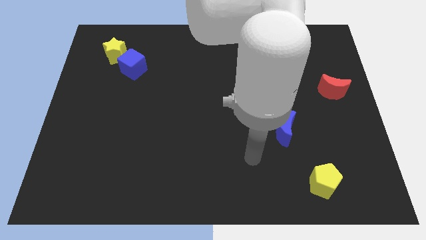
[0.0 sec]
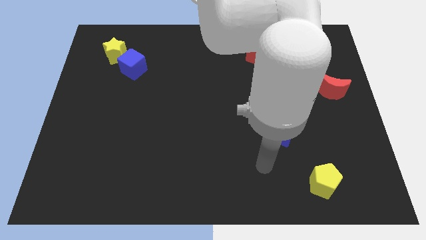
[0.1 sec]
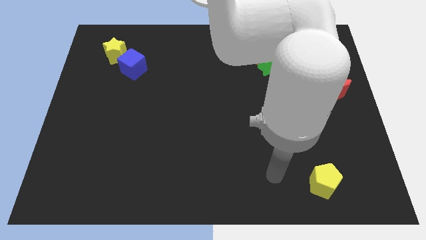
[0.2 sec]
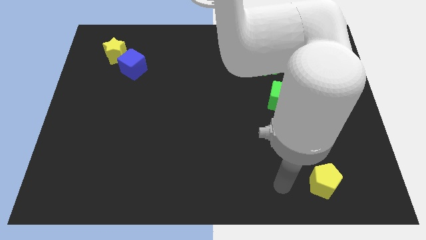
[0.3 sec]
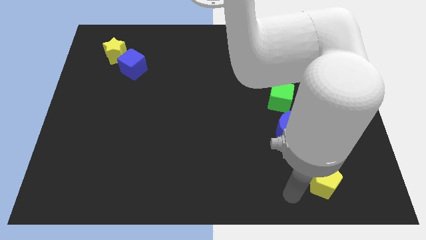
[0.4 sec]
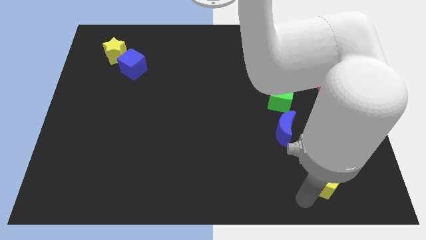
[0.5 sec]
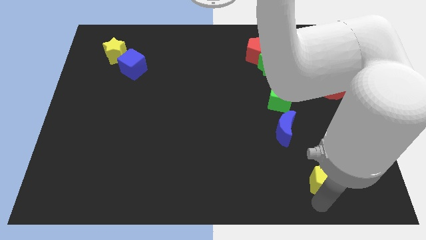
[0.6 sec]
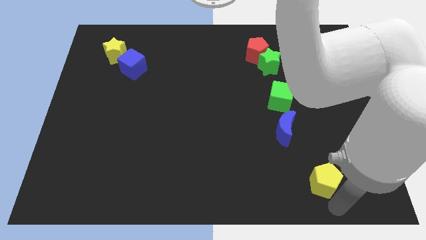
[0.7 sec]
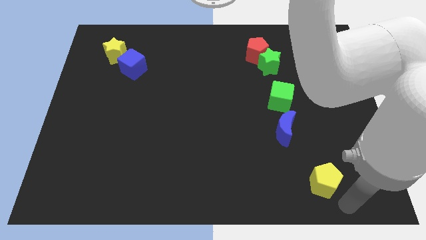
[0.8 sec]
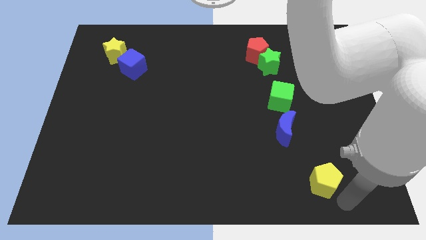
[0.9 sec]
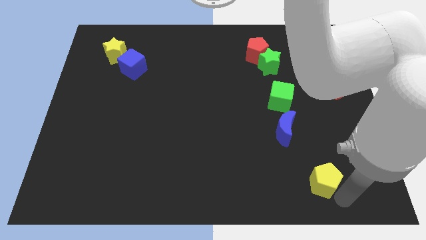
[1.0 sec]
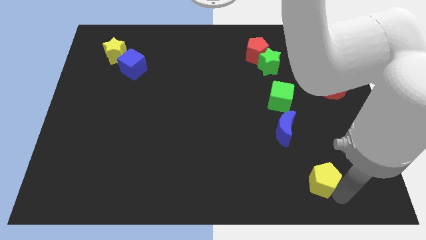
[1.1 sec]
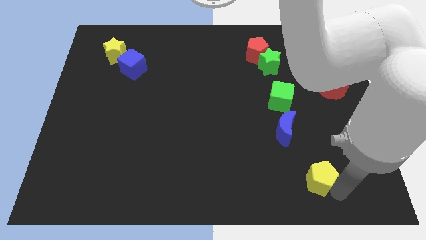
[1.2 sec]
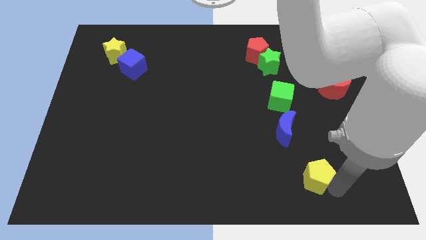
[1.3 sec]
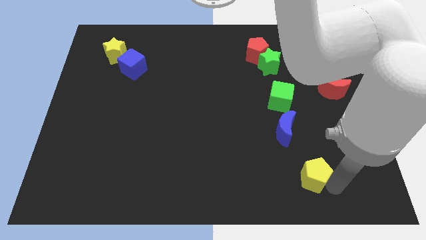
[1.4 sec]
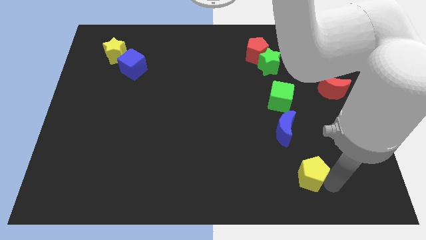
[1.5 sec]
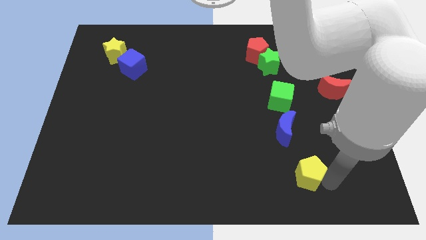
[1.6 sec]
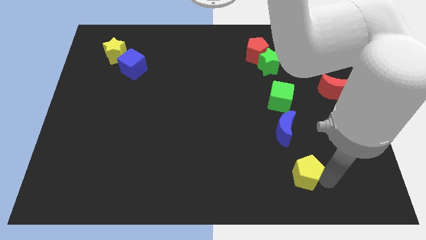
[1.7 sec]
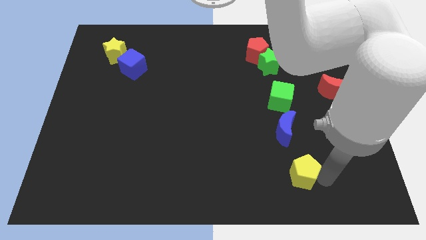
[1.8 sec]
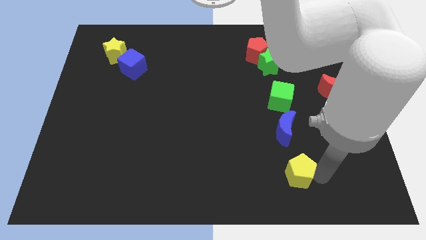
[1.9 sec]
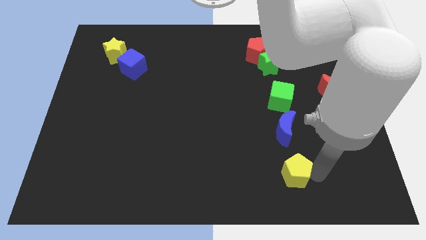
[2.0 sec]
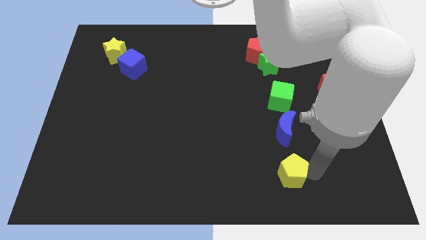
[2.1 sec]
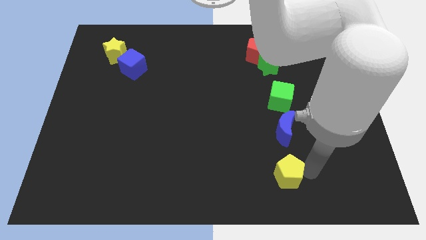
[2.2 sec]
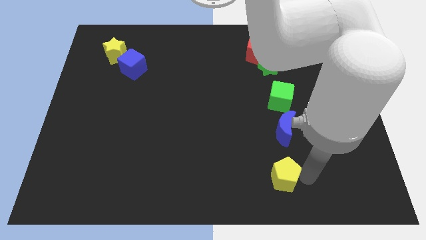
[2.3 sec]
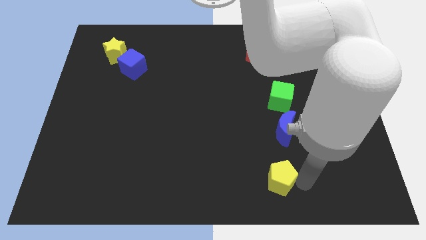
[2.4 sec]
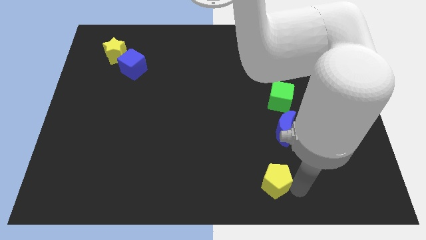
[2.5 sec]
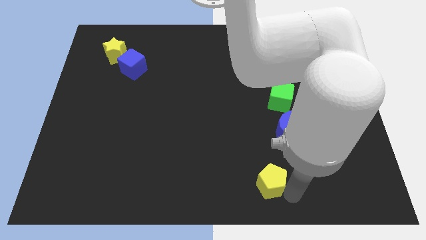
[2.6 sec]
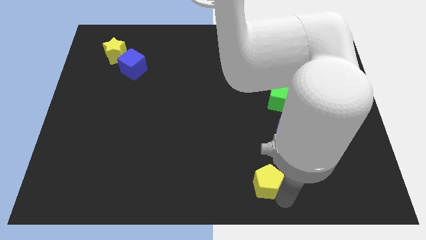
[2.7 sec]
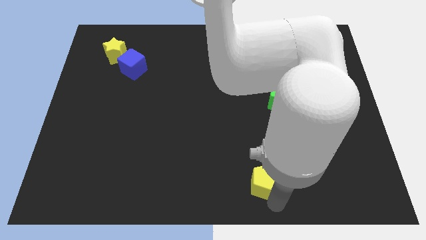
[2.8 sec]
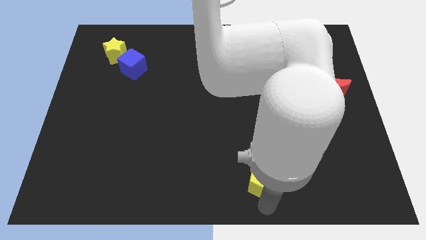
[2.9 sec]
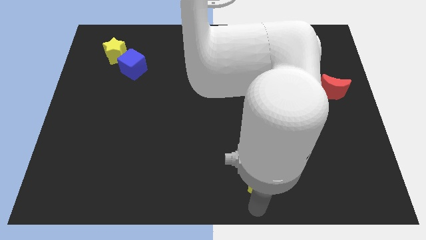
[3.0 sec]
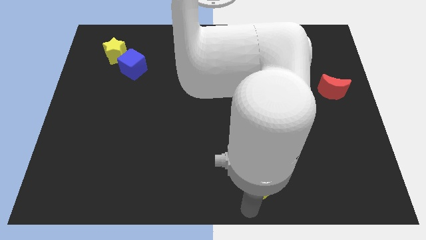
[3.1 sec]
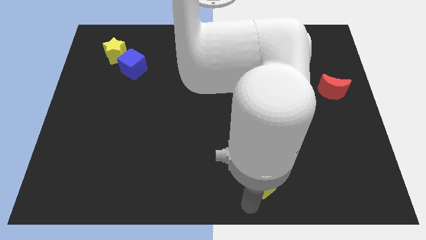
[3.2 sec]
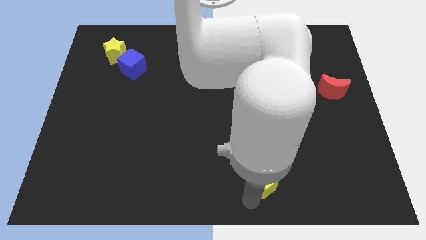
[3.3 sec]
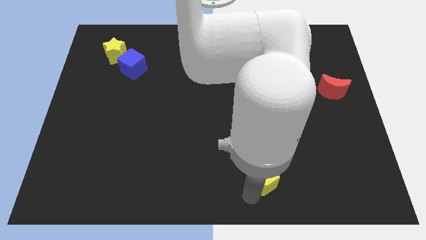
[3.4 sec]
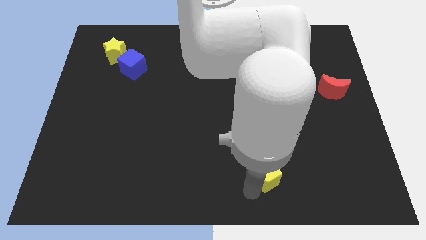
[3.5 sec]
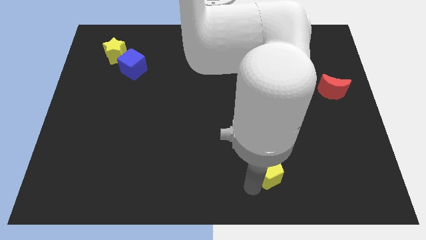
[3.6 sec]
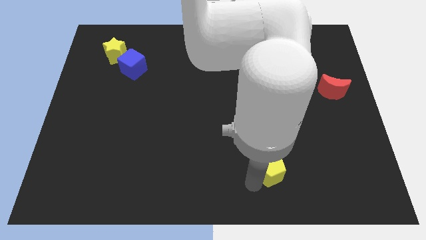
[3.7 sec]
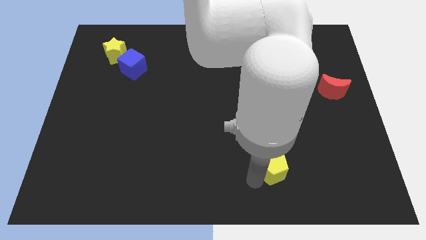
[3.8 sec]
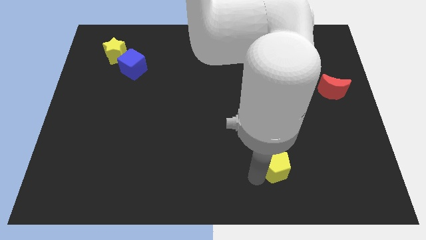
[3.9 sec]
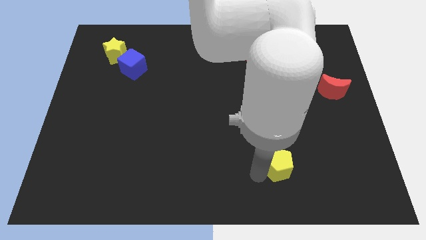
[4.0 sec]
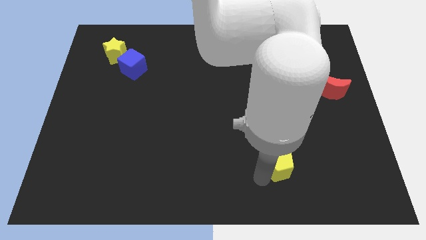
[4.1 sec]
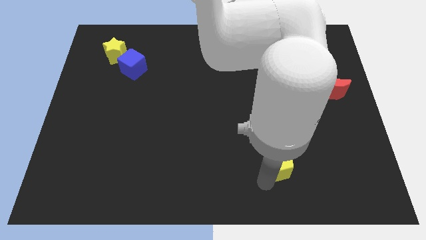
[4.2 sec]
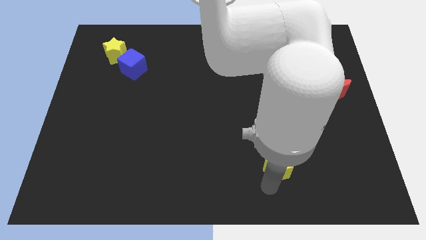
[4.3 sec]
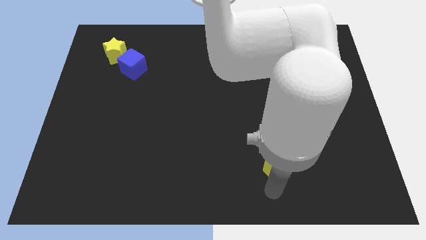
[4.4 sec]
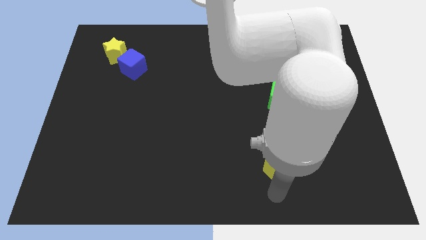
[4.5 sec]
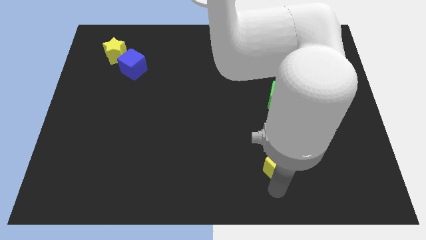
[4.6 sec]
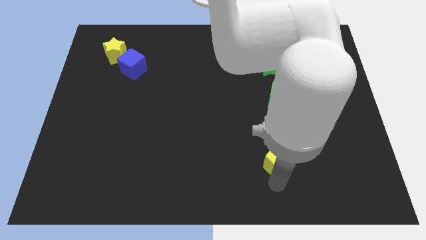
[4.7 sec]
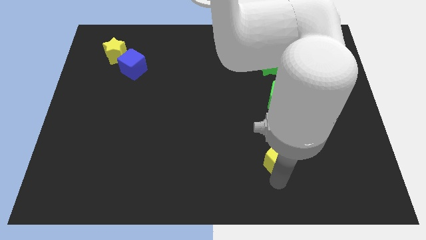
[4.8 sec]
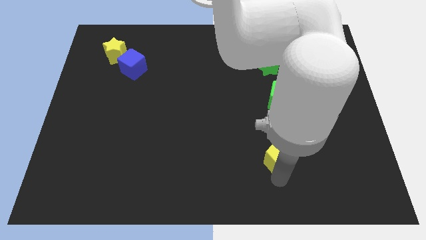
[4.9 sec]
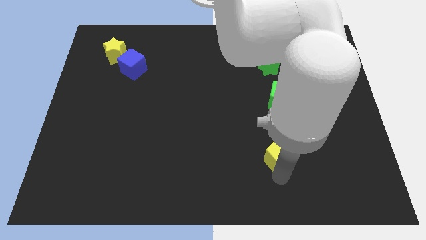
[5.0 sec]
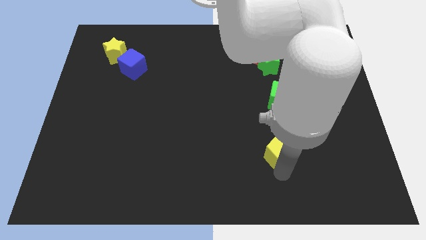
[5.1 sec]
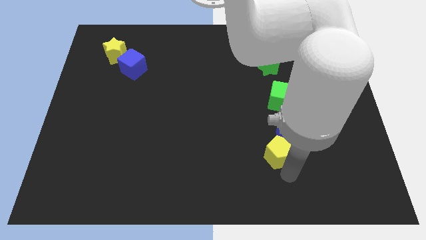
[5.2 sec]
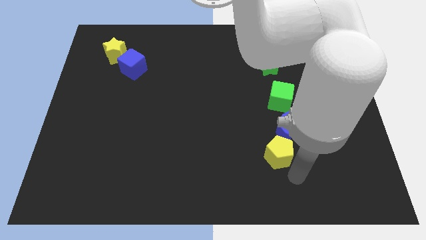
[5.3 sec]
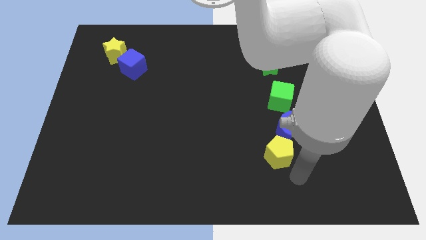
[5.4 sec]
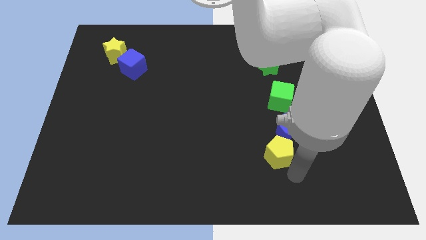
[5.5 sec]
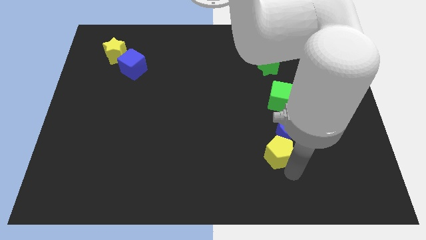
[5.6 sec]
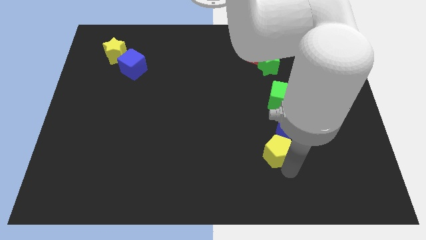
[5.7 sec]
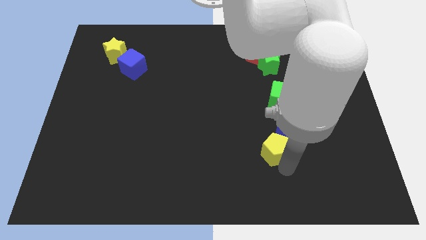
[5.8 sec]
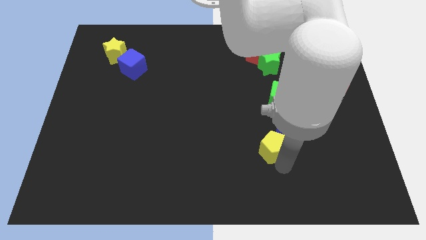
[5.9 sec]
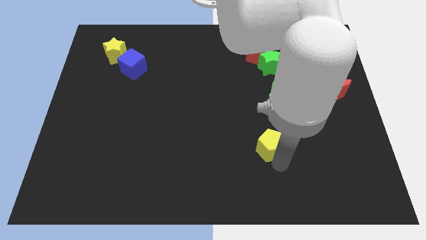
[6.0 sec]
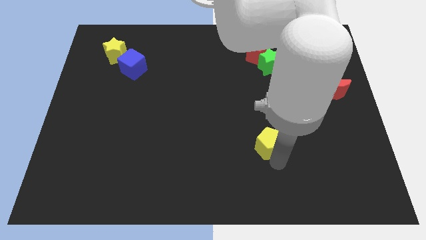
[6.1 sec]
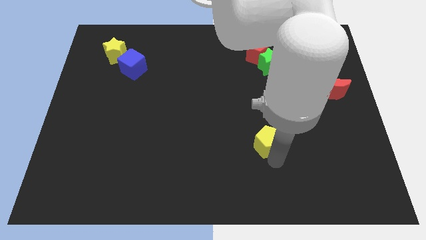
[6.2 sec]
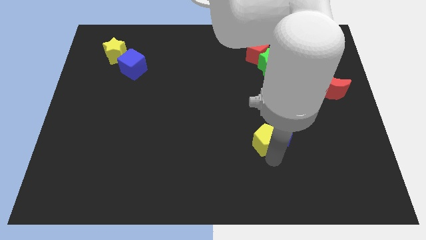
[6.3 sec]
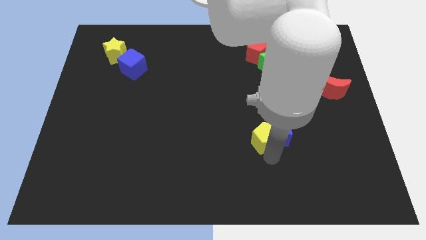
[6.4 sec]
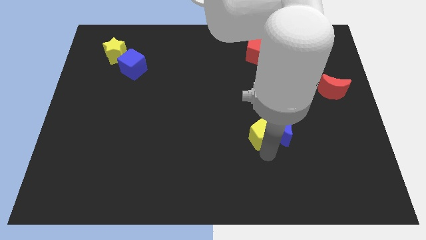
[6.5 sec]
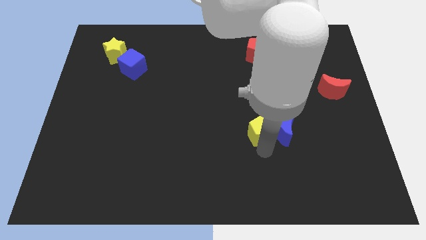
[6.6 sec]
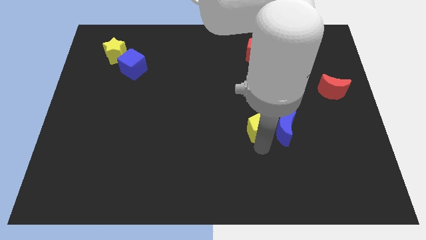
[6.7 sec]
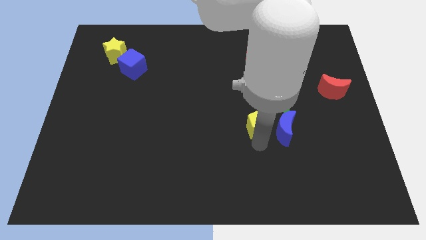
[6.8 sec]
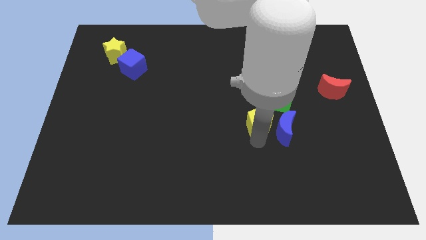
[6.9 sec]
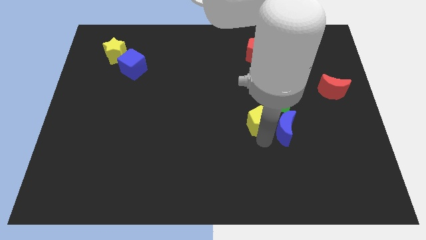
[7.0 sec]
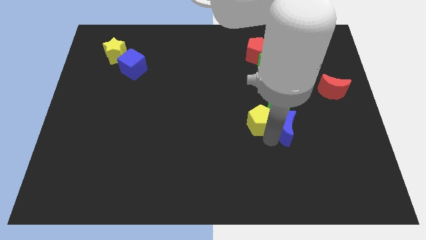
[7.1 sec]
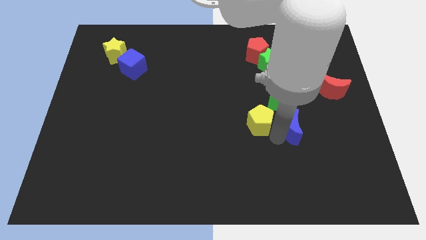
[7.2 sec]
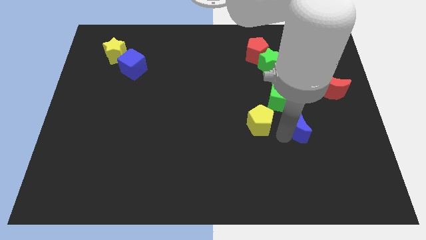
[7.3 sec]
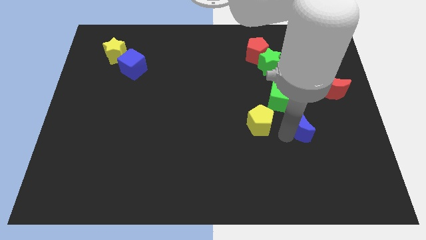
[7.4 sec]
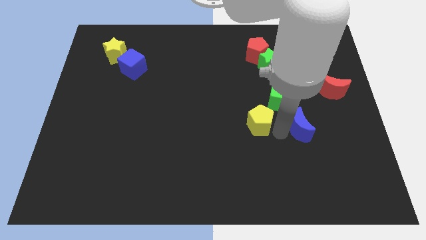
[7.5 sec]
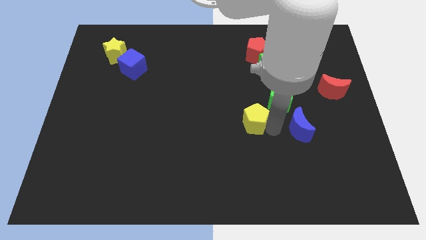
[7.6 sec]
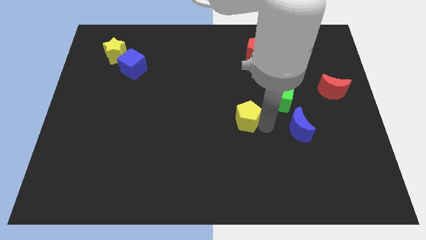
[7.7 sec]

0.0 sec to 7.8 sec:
move the yellow pentagon up and to the left diagonally
